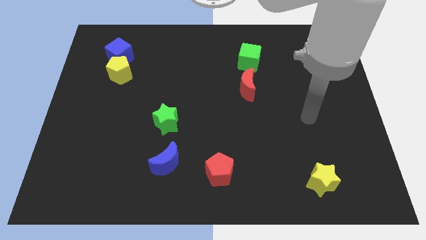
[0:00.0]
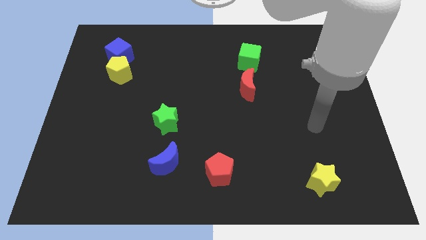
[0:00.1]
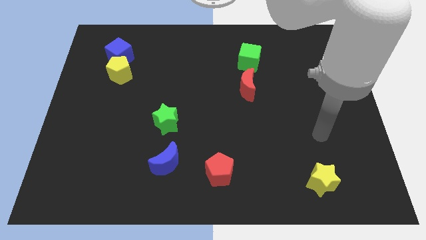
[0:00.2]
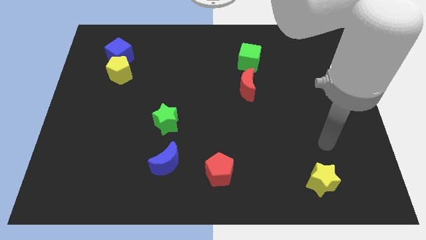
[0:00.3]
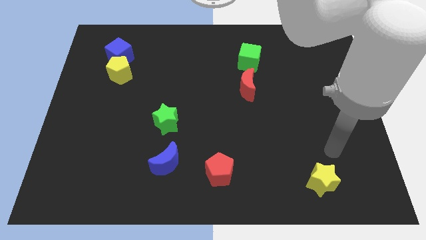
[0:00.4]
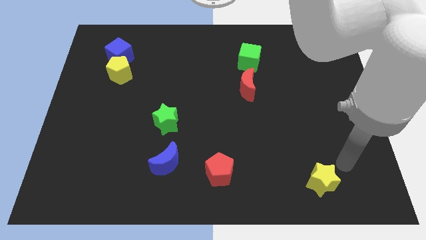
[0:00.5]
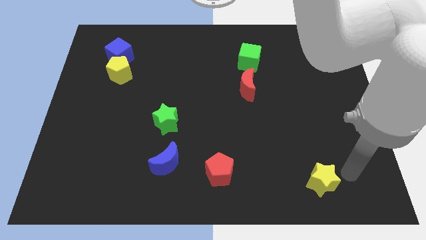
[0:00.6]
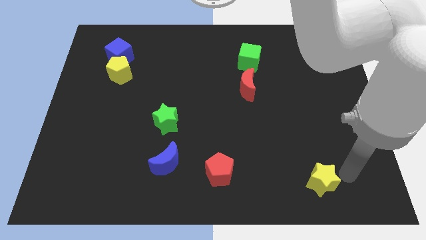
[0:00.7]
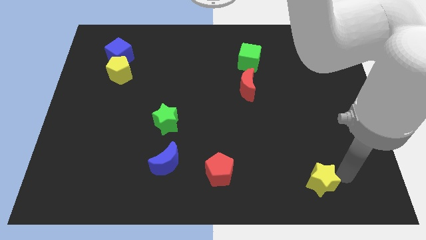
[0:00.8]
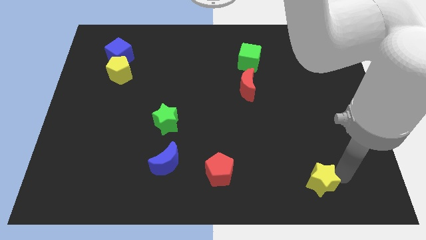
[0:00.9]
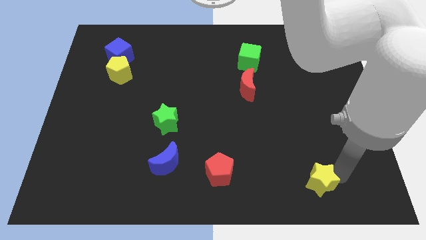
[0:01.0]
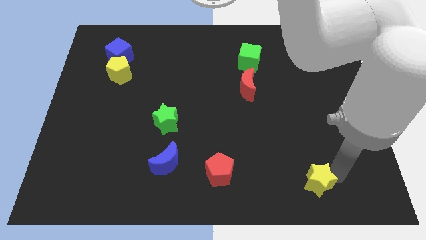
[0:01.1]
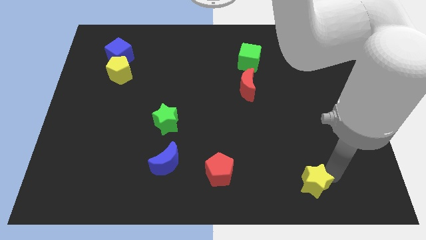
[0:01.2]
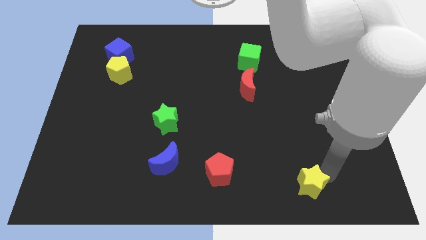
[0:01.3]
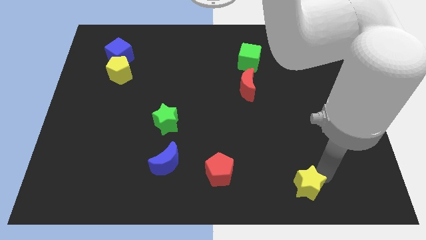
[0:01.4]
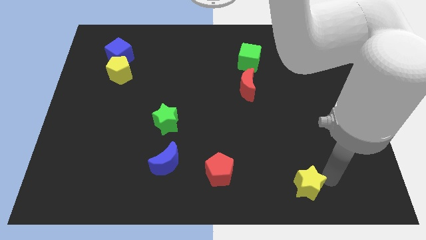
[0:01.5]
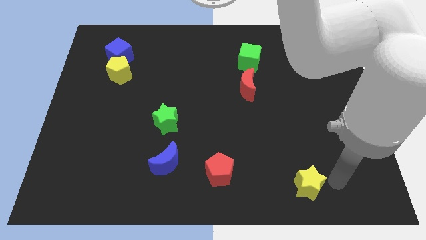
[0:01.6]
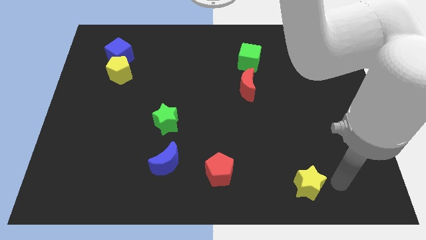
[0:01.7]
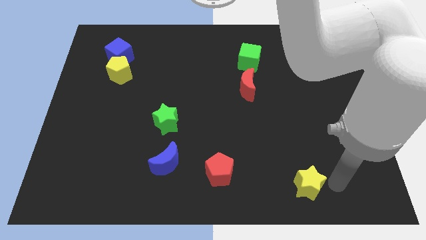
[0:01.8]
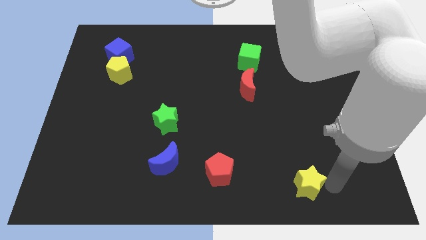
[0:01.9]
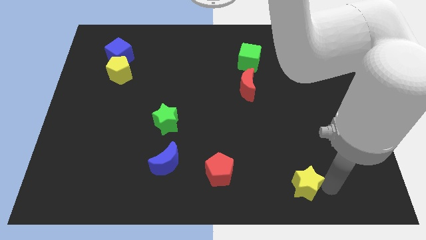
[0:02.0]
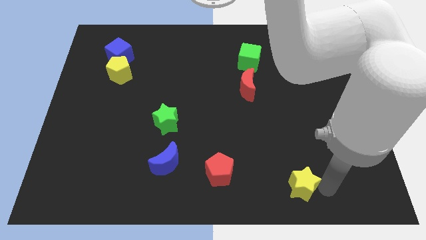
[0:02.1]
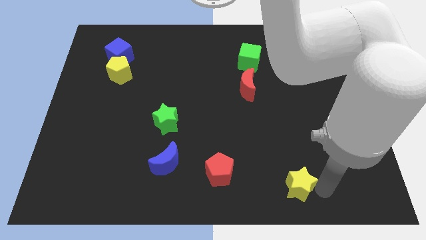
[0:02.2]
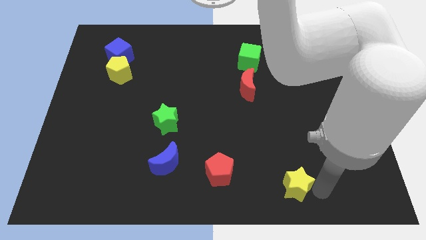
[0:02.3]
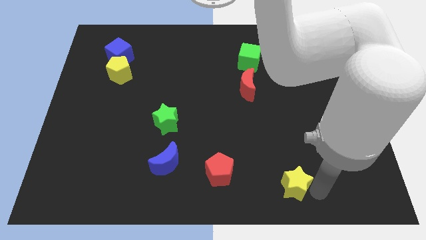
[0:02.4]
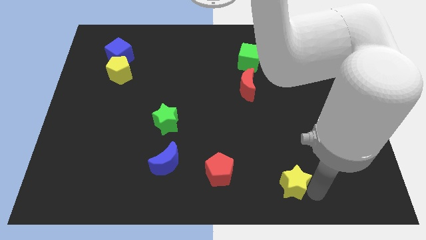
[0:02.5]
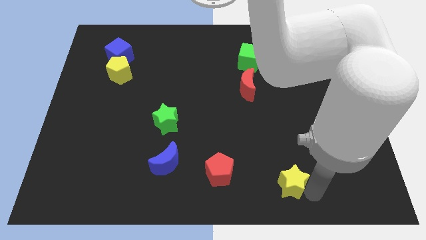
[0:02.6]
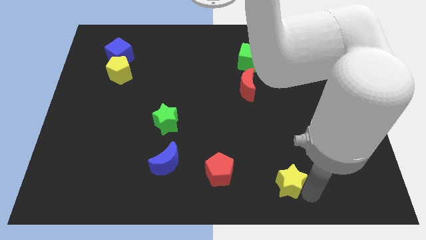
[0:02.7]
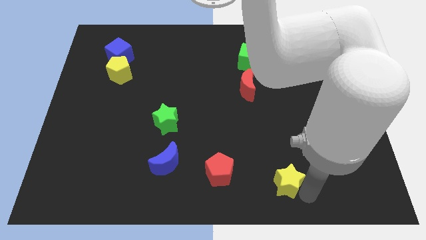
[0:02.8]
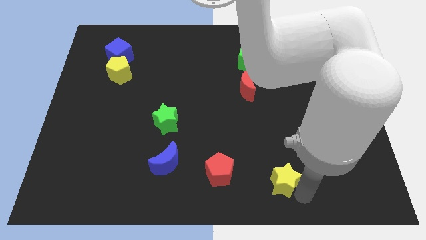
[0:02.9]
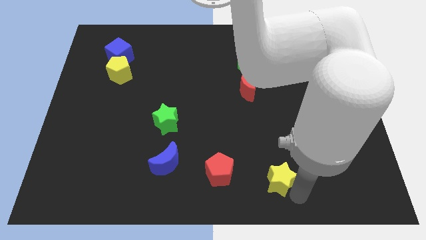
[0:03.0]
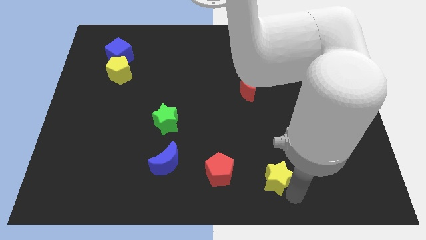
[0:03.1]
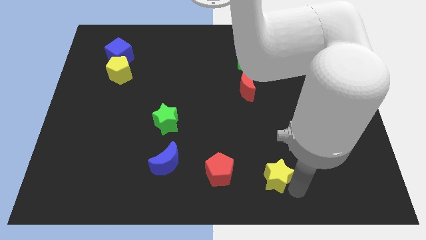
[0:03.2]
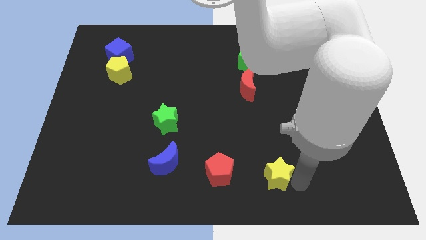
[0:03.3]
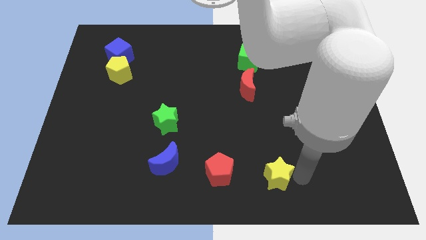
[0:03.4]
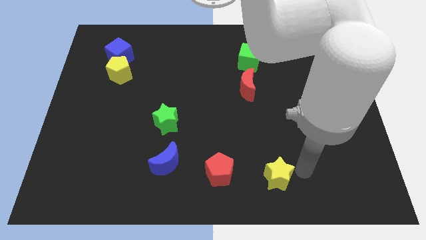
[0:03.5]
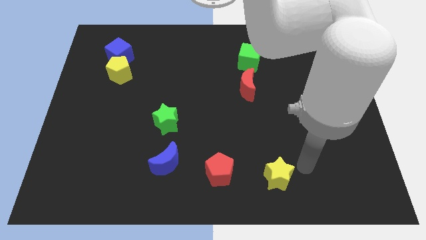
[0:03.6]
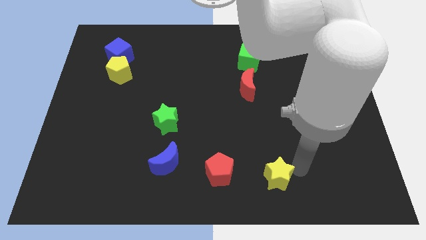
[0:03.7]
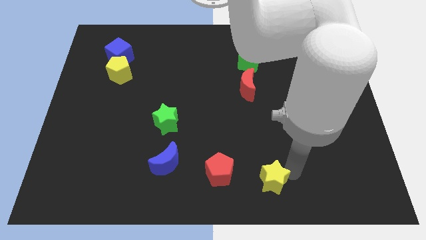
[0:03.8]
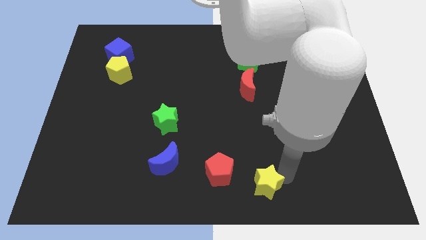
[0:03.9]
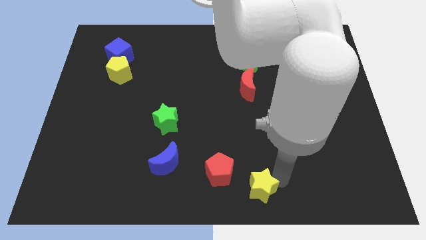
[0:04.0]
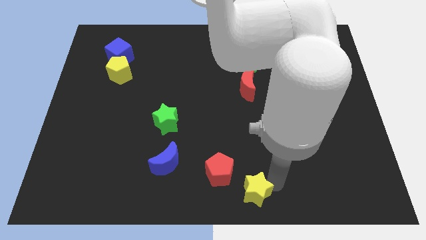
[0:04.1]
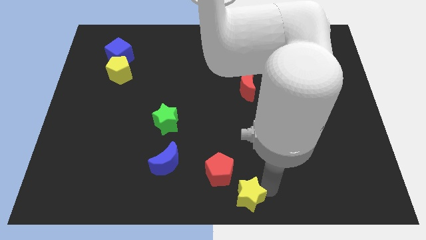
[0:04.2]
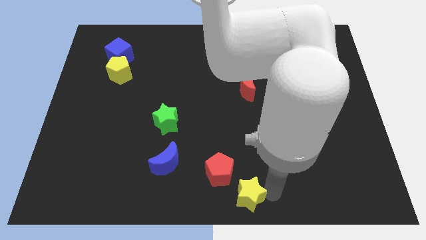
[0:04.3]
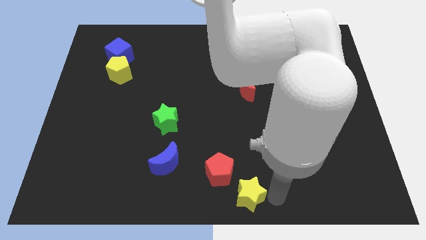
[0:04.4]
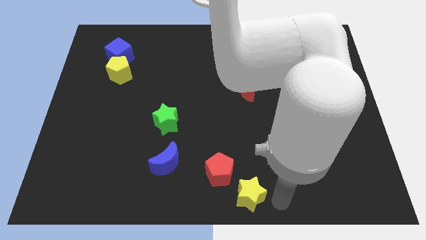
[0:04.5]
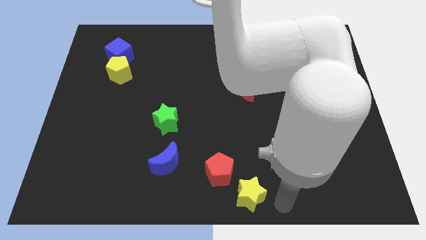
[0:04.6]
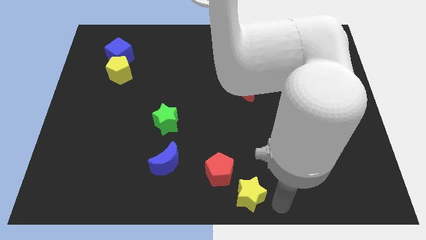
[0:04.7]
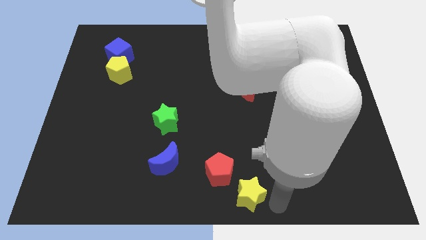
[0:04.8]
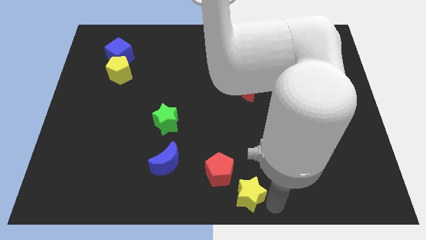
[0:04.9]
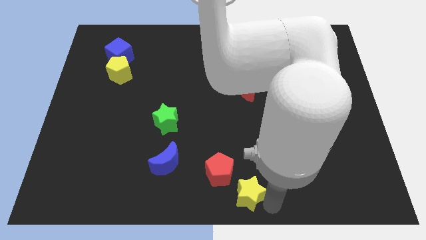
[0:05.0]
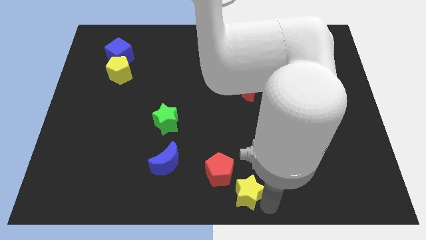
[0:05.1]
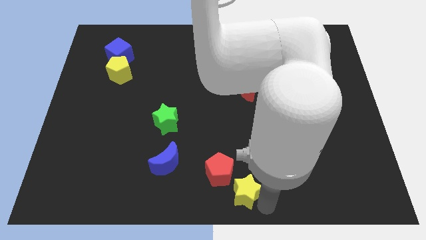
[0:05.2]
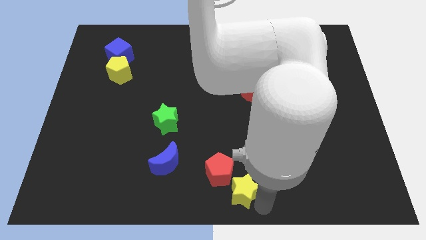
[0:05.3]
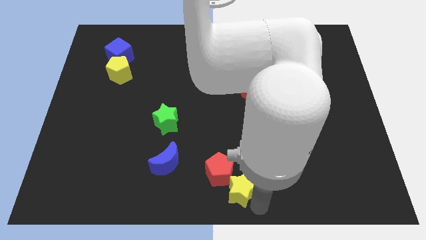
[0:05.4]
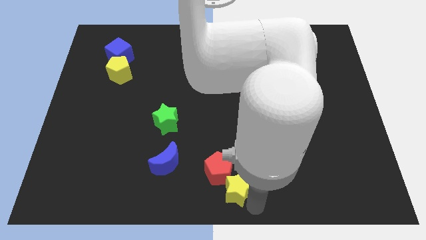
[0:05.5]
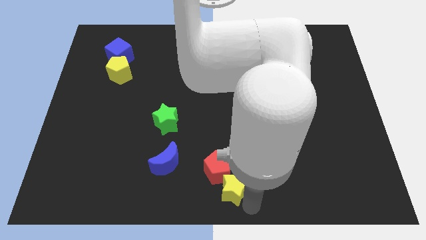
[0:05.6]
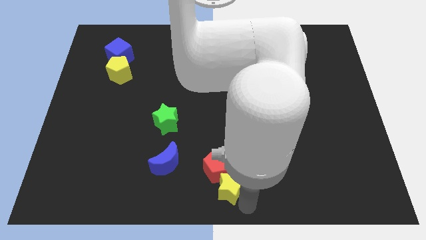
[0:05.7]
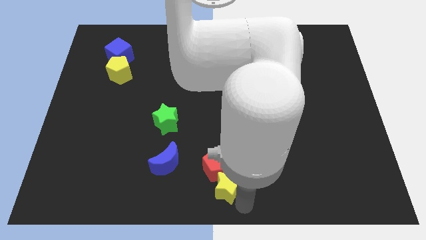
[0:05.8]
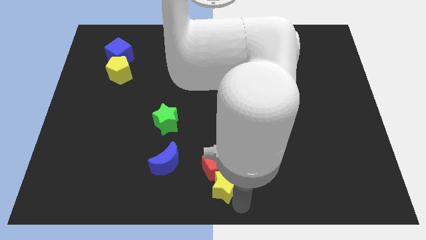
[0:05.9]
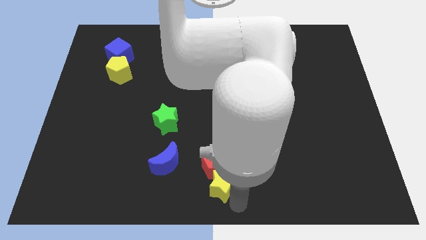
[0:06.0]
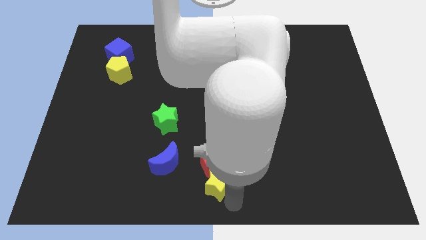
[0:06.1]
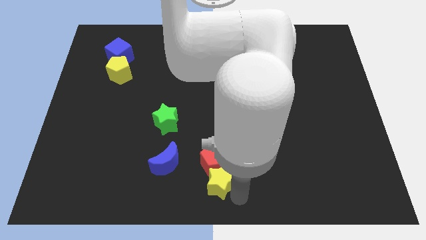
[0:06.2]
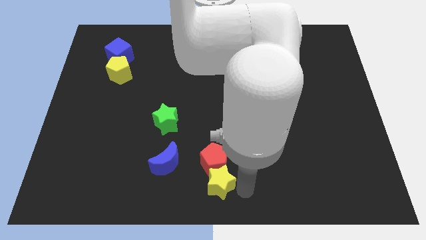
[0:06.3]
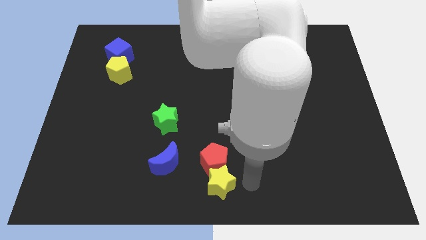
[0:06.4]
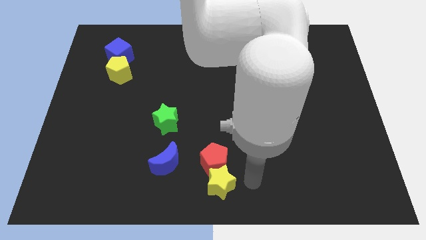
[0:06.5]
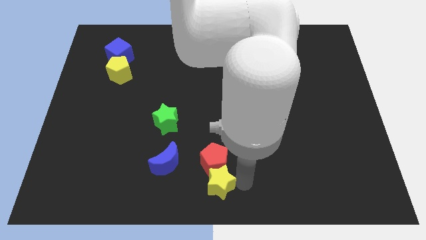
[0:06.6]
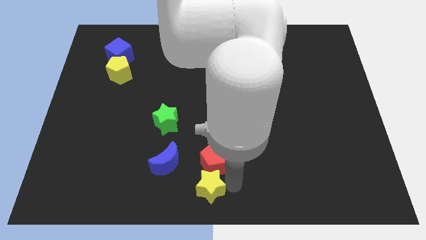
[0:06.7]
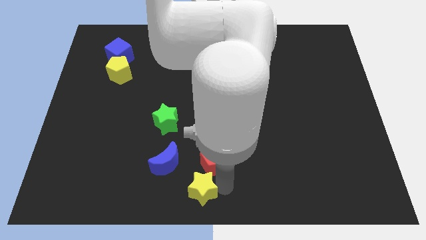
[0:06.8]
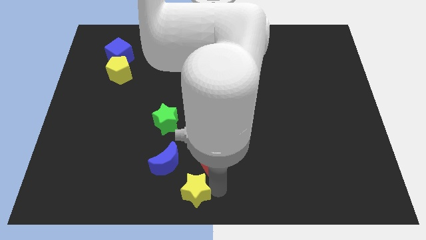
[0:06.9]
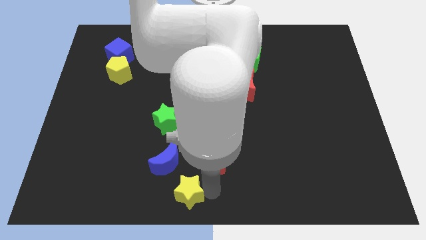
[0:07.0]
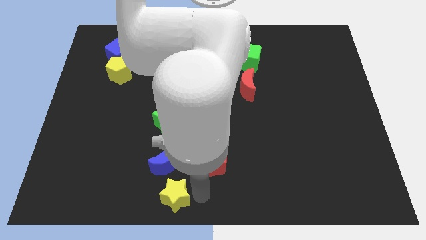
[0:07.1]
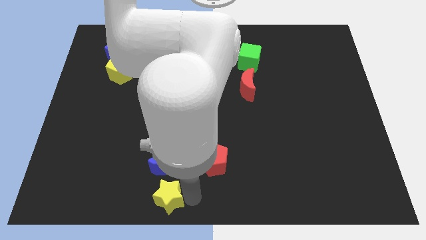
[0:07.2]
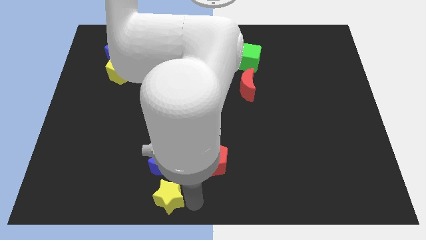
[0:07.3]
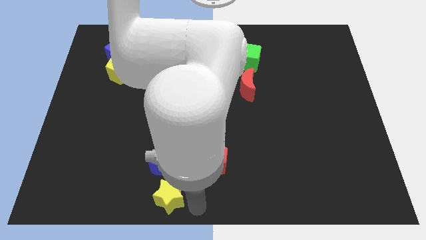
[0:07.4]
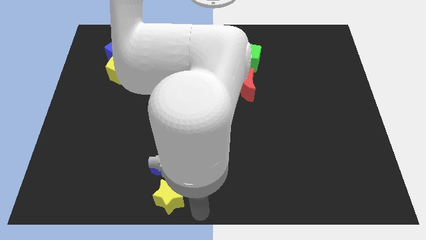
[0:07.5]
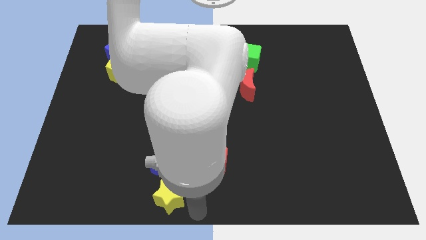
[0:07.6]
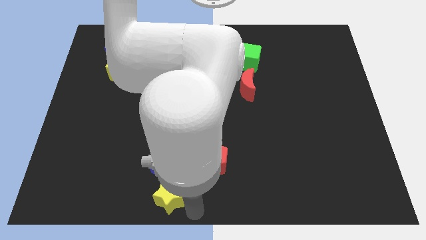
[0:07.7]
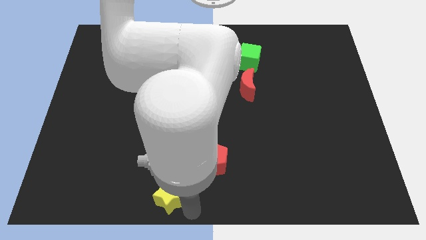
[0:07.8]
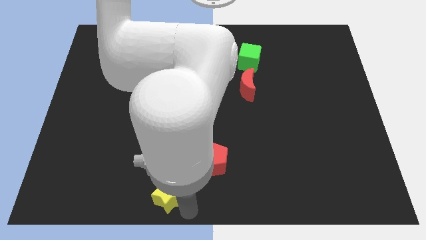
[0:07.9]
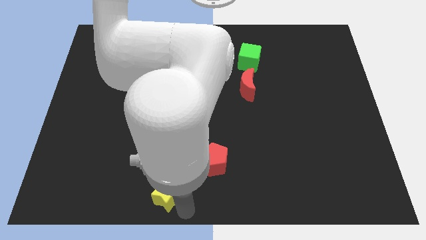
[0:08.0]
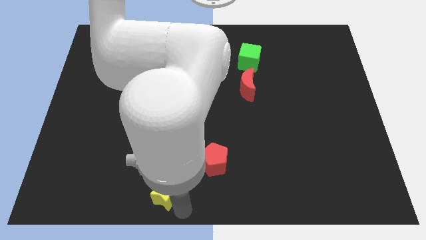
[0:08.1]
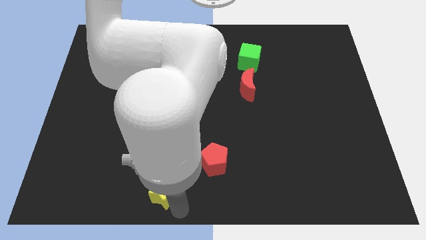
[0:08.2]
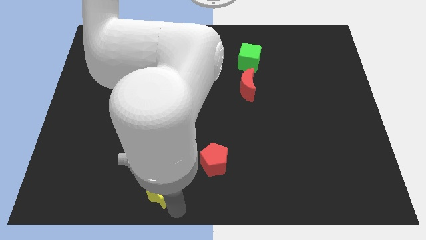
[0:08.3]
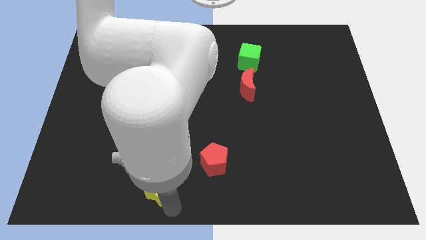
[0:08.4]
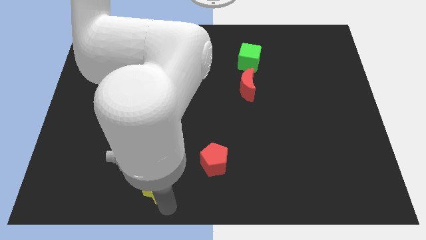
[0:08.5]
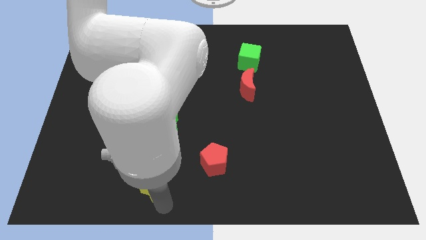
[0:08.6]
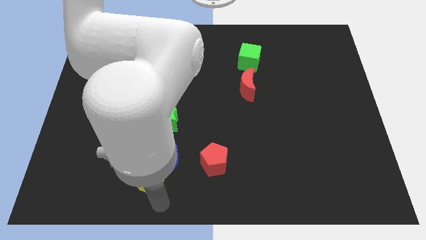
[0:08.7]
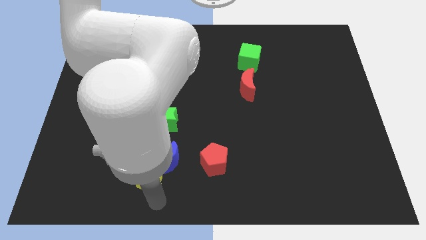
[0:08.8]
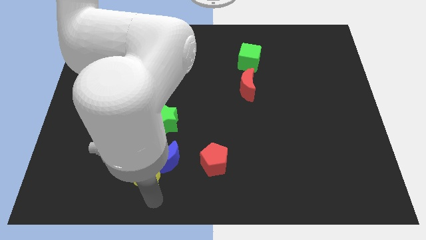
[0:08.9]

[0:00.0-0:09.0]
slide the yellow star left of the blue moon
